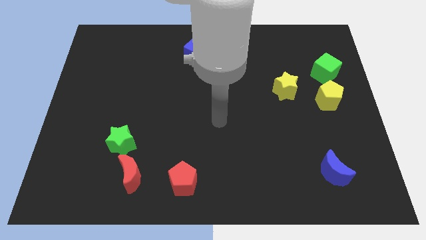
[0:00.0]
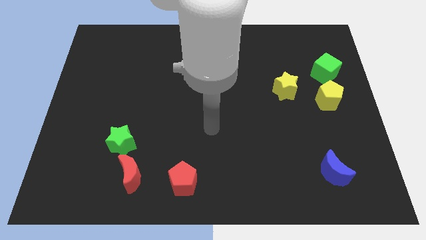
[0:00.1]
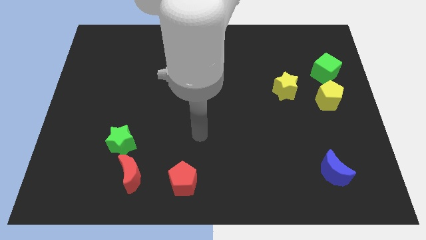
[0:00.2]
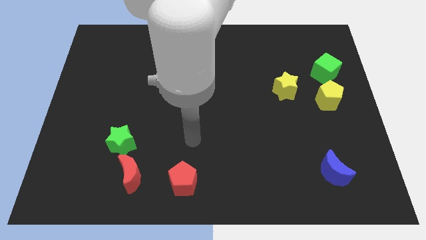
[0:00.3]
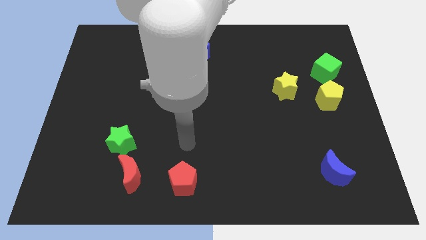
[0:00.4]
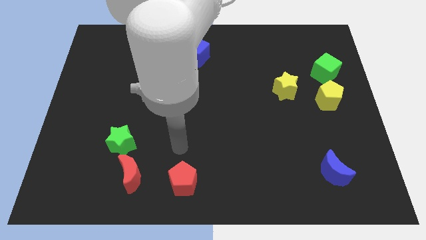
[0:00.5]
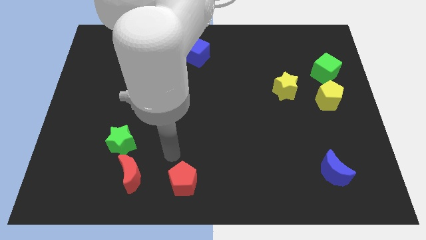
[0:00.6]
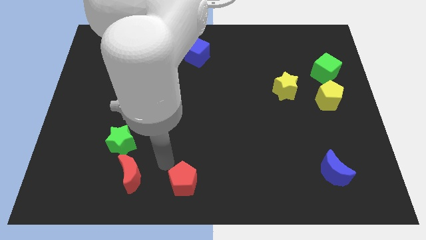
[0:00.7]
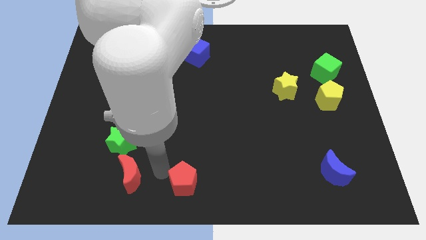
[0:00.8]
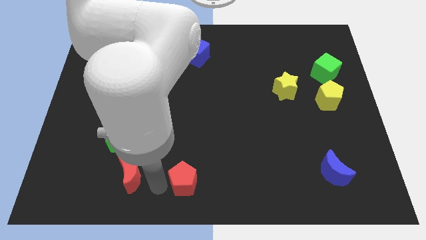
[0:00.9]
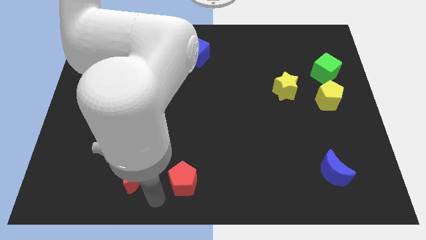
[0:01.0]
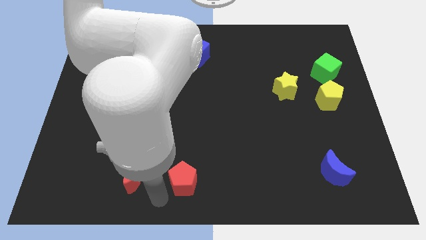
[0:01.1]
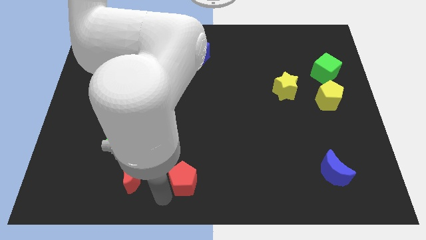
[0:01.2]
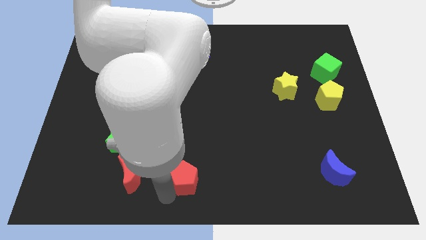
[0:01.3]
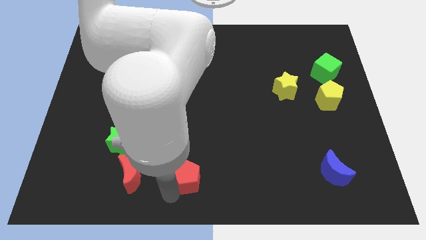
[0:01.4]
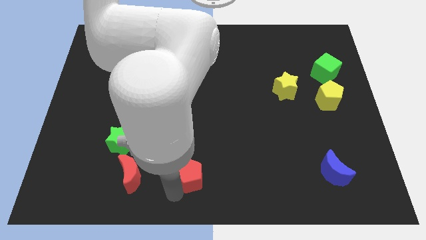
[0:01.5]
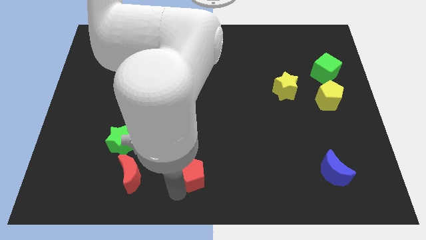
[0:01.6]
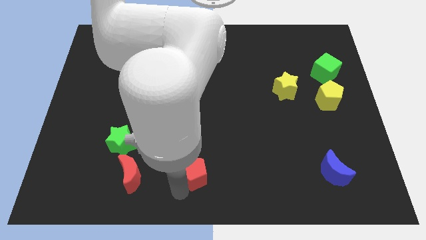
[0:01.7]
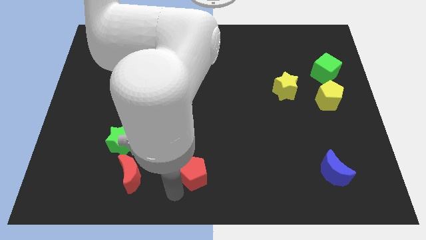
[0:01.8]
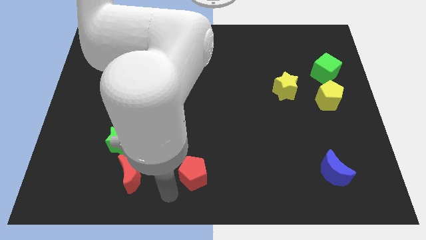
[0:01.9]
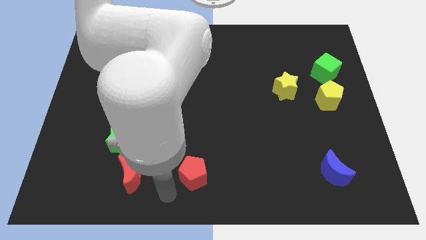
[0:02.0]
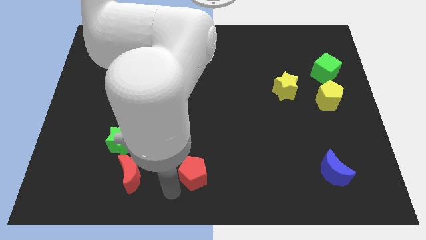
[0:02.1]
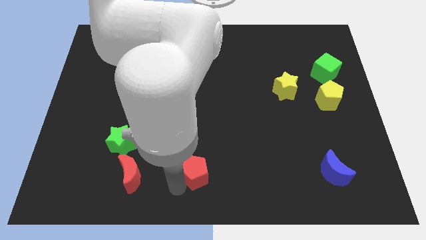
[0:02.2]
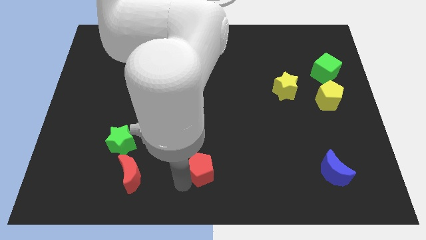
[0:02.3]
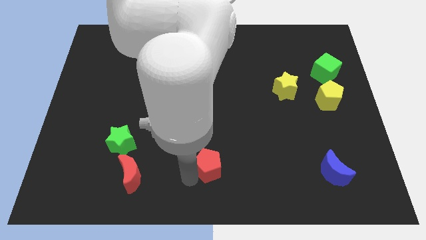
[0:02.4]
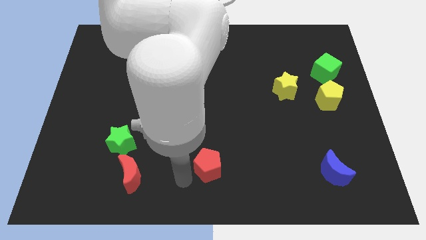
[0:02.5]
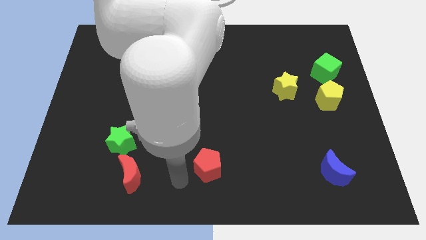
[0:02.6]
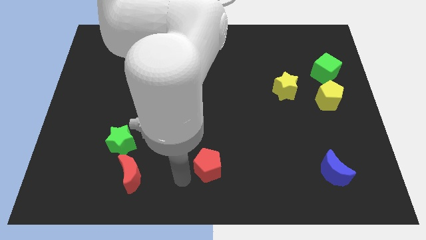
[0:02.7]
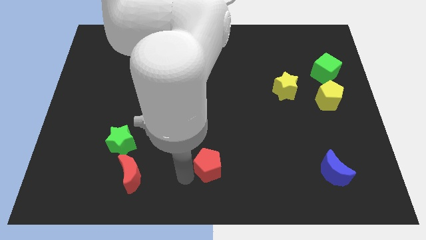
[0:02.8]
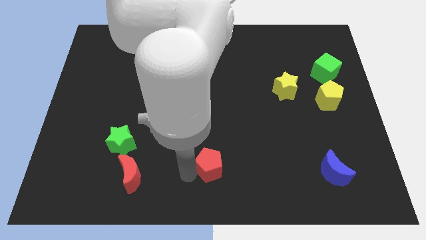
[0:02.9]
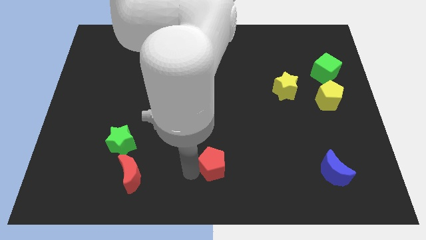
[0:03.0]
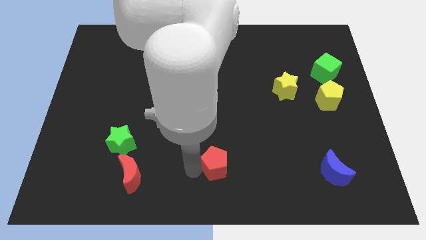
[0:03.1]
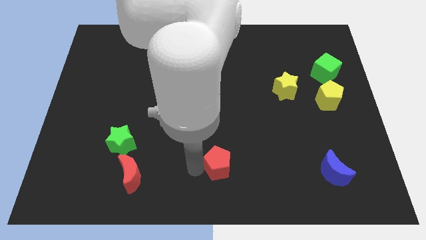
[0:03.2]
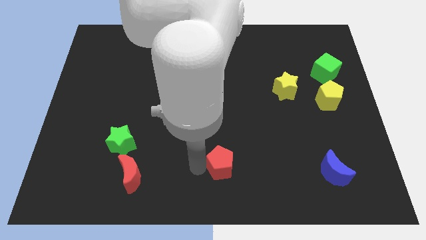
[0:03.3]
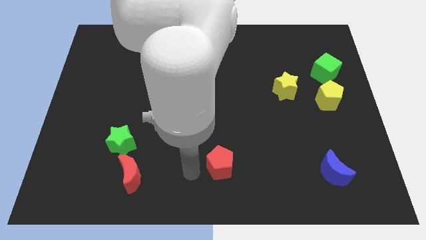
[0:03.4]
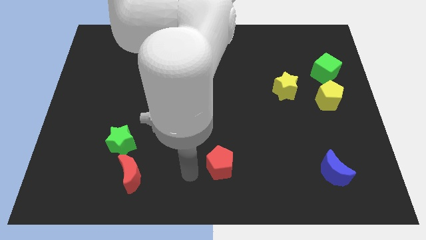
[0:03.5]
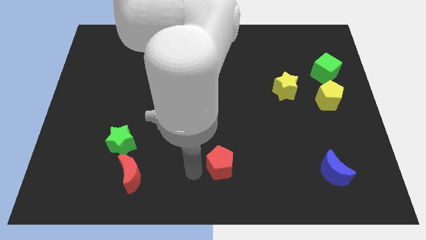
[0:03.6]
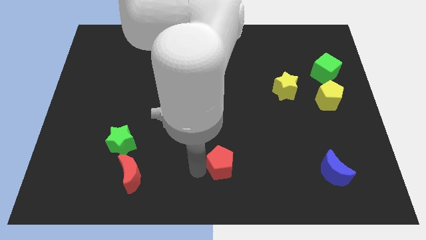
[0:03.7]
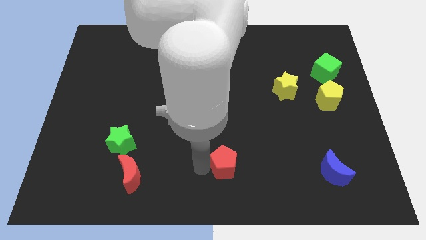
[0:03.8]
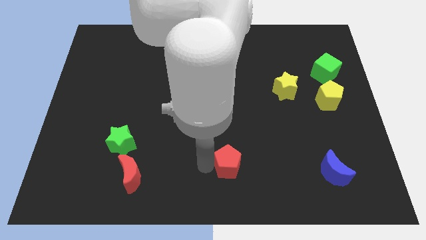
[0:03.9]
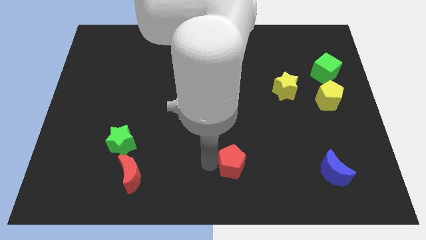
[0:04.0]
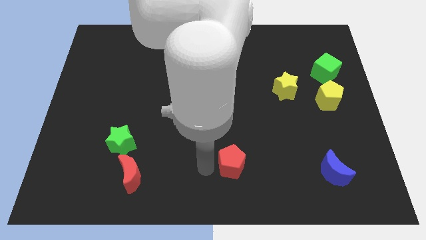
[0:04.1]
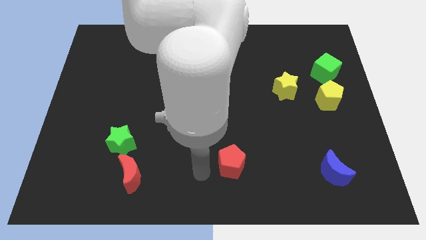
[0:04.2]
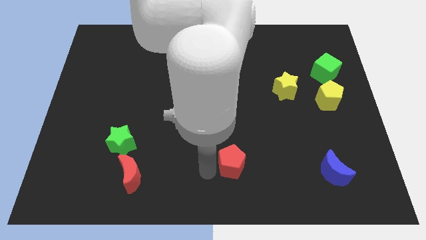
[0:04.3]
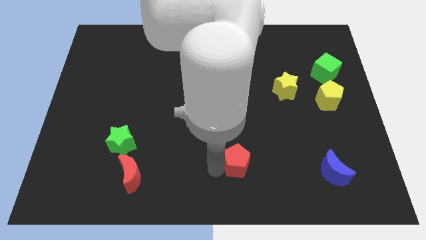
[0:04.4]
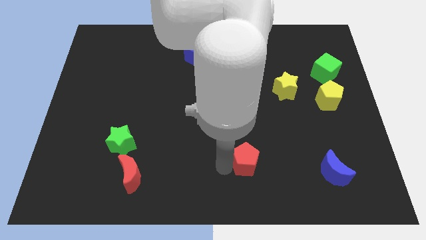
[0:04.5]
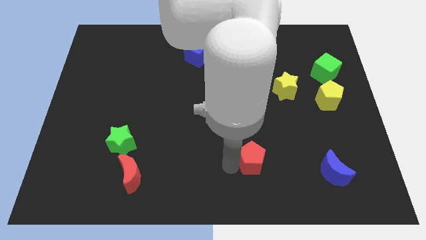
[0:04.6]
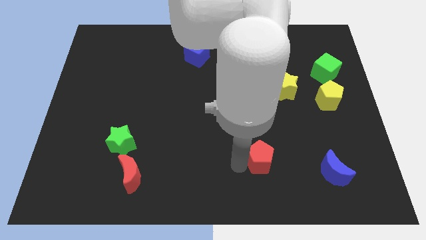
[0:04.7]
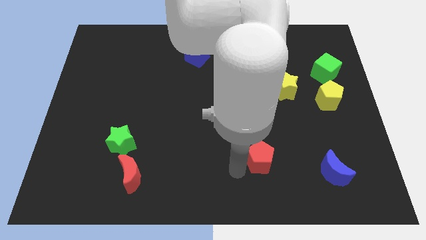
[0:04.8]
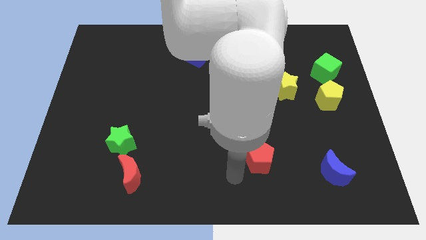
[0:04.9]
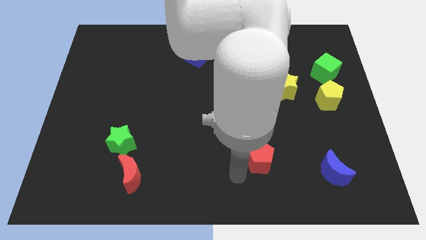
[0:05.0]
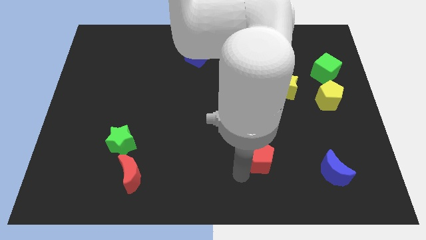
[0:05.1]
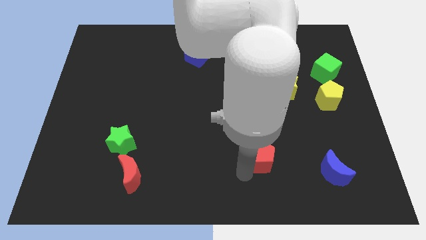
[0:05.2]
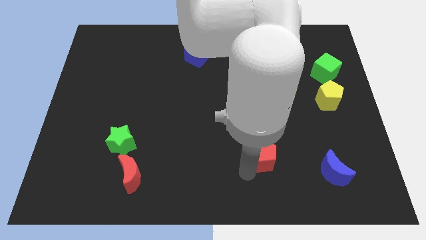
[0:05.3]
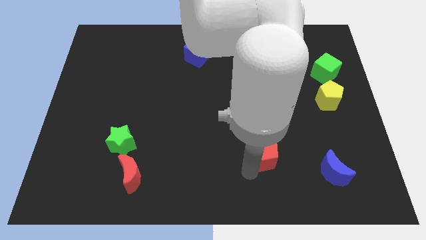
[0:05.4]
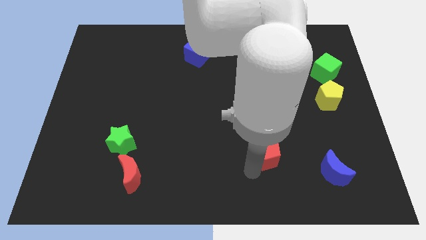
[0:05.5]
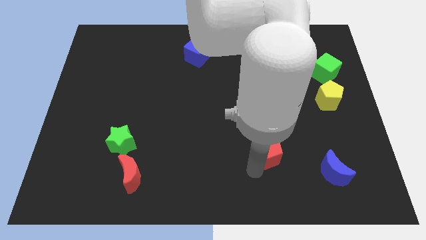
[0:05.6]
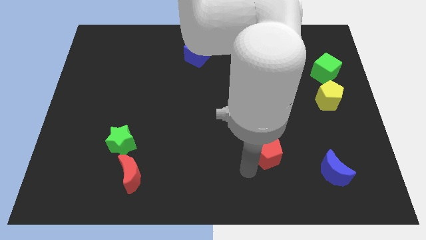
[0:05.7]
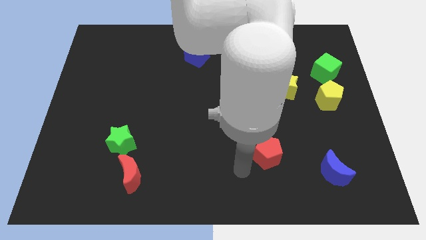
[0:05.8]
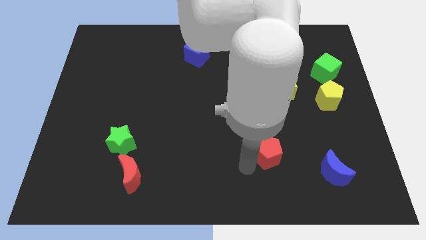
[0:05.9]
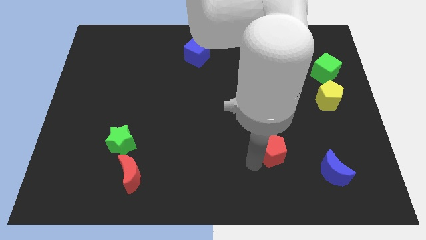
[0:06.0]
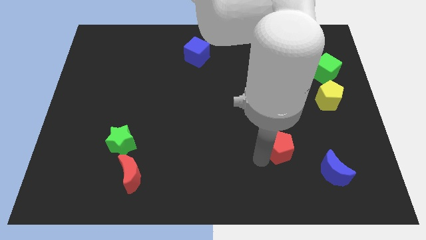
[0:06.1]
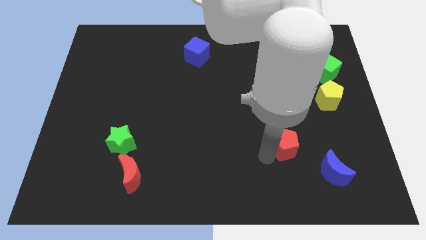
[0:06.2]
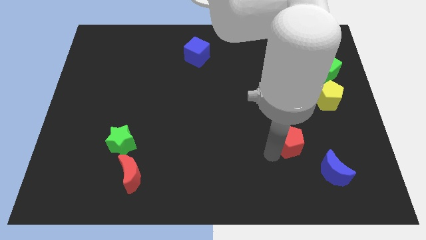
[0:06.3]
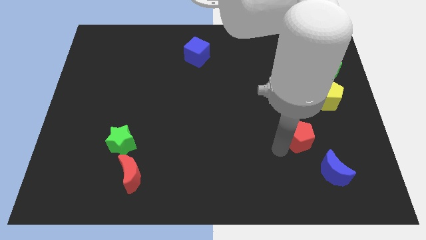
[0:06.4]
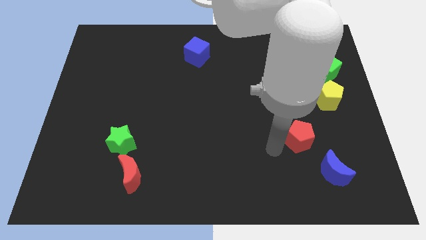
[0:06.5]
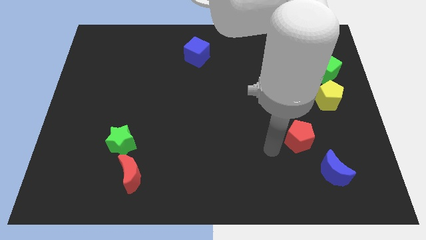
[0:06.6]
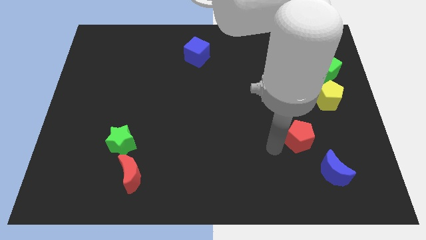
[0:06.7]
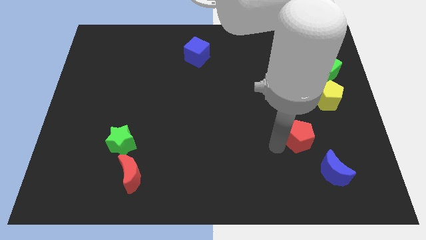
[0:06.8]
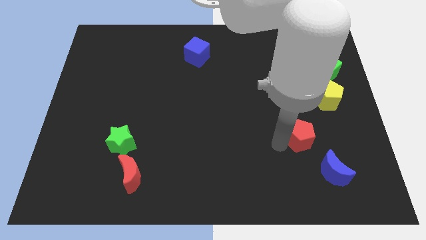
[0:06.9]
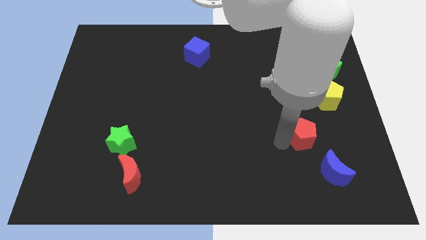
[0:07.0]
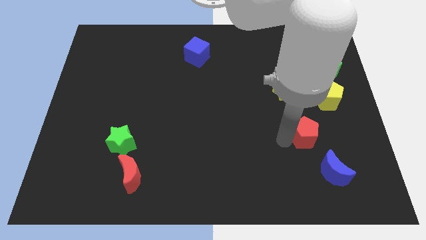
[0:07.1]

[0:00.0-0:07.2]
put the red pentagon to the top side of the blue moon
